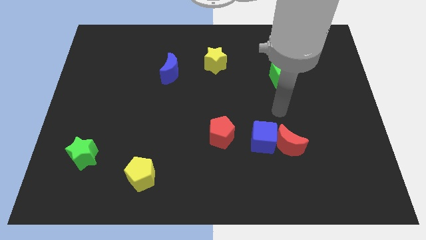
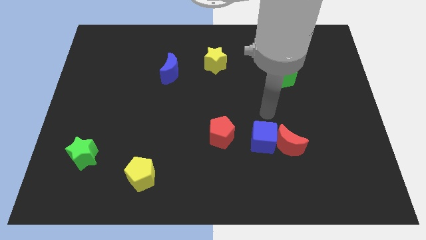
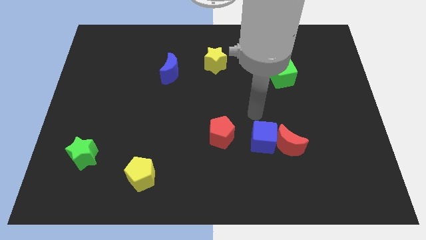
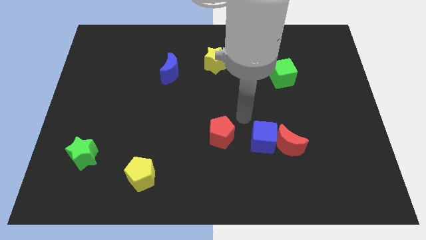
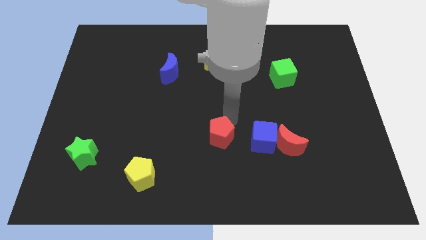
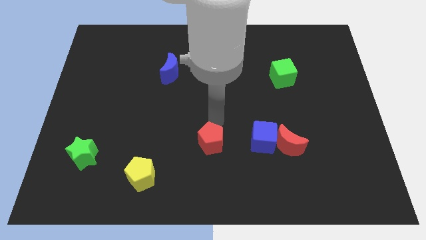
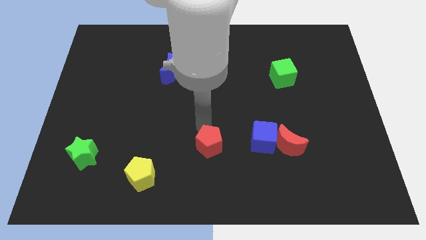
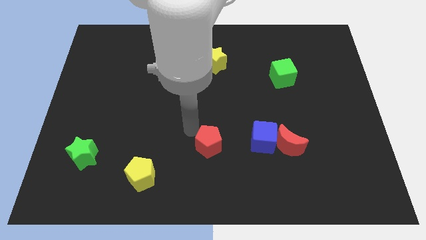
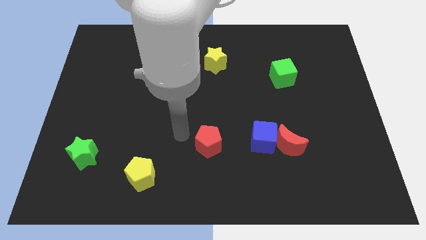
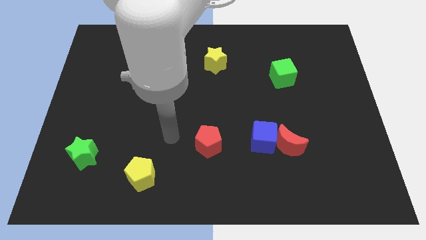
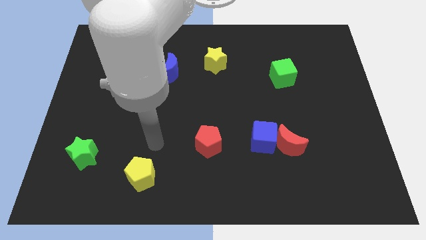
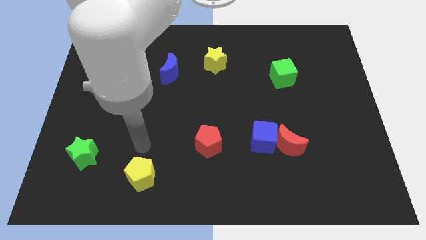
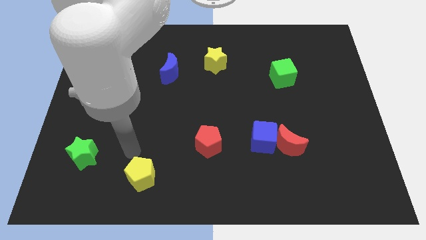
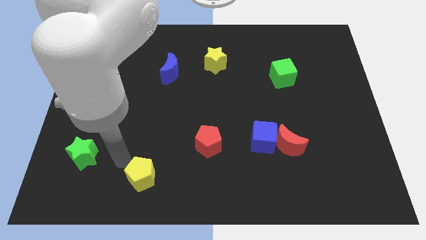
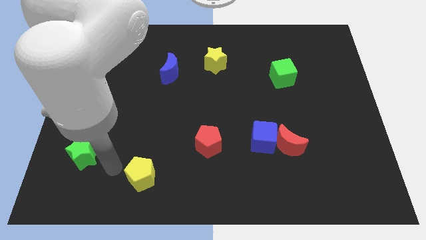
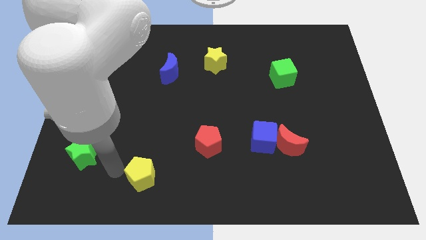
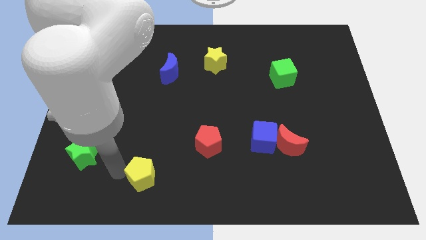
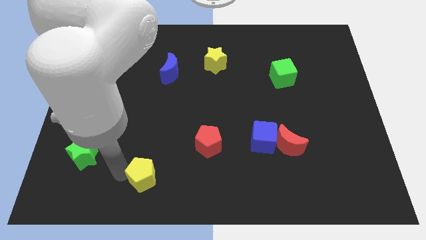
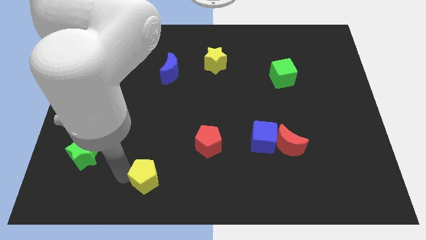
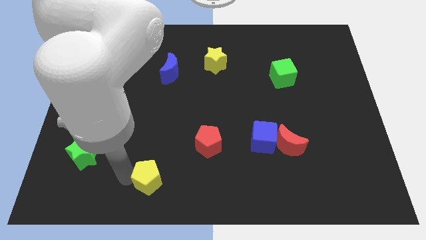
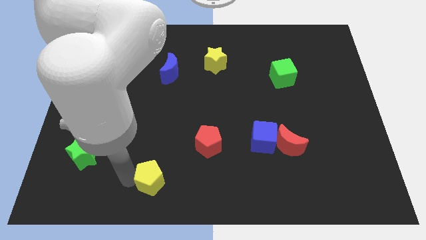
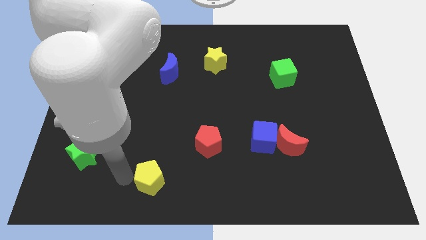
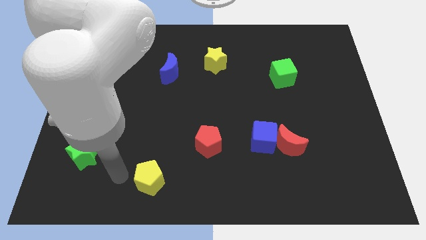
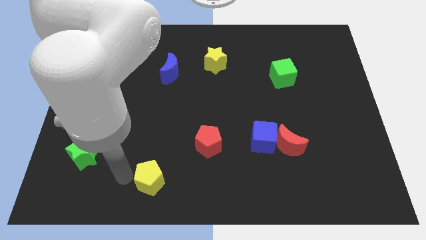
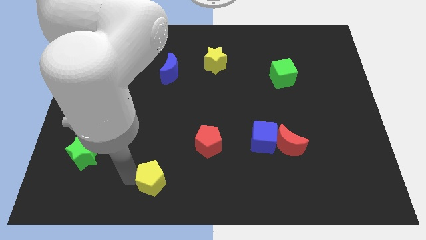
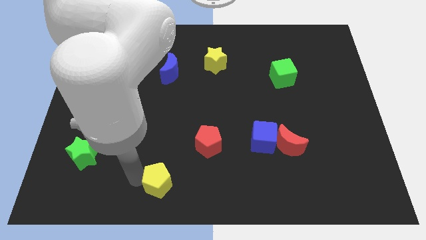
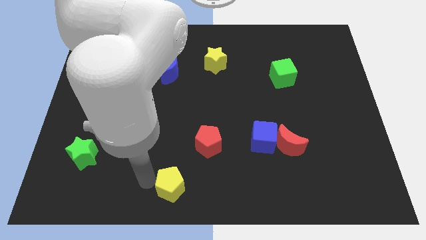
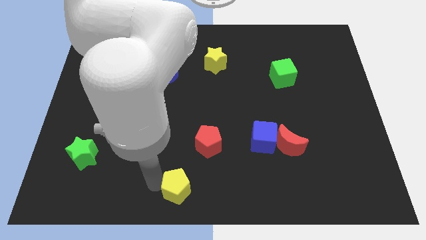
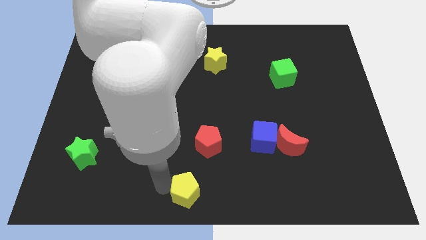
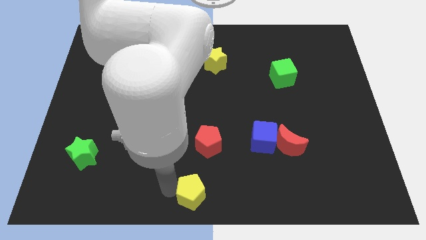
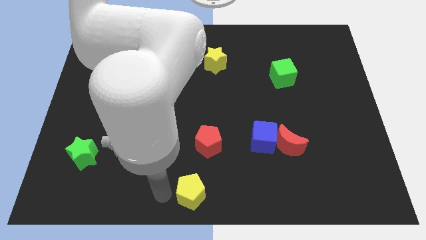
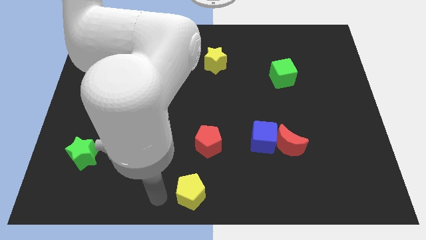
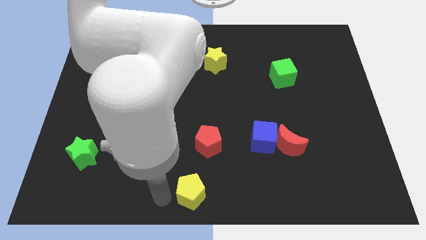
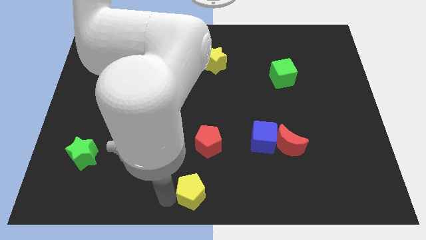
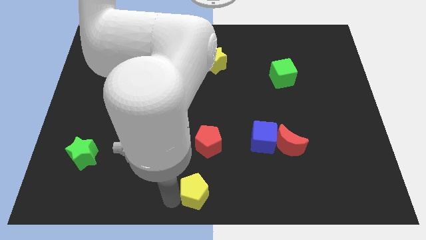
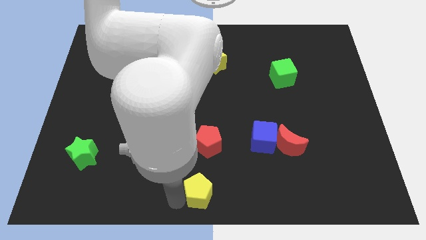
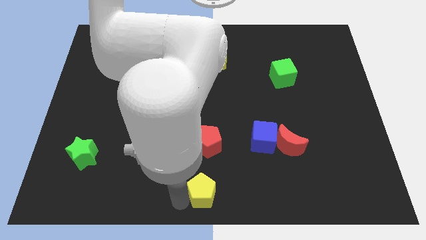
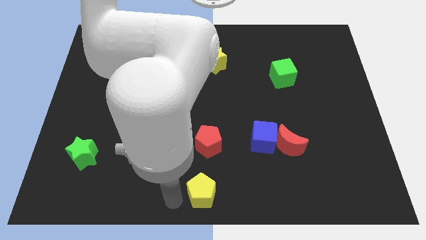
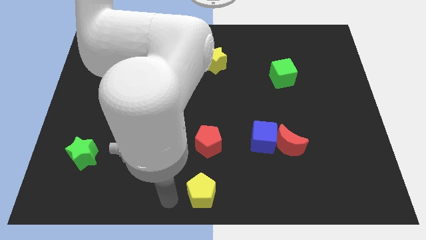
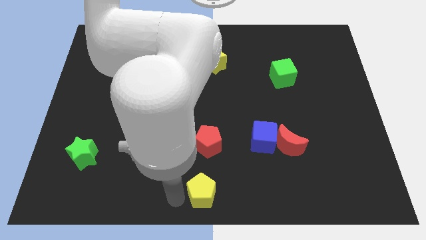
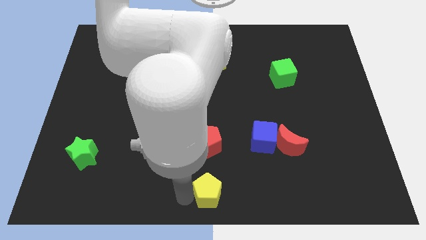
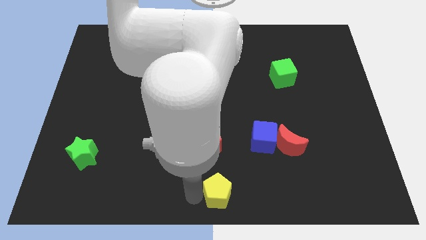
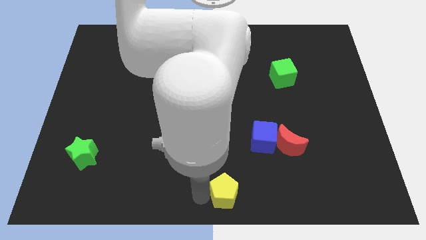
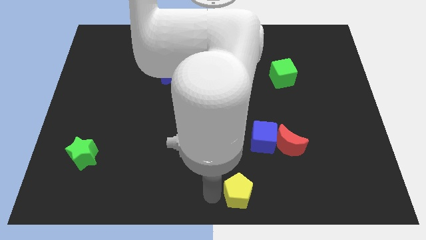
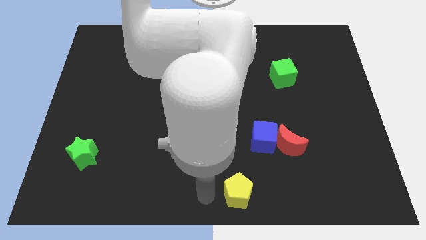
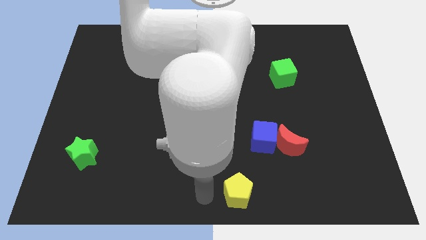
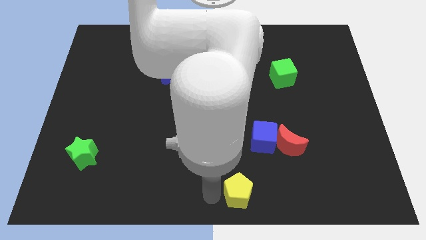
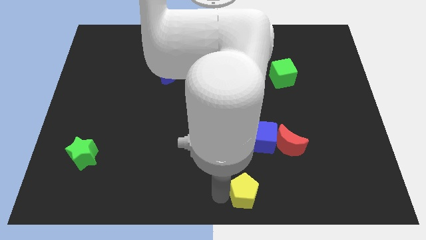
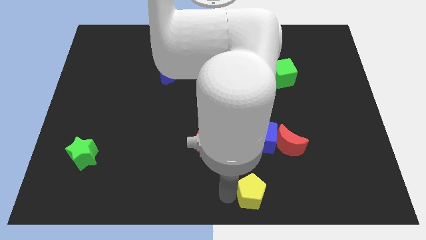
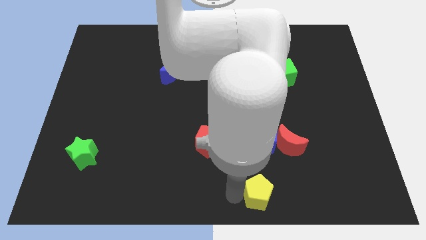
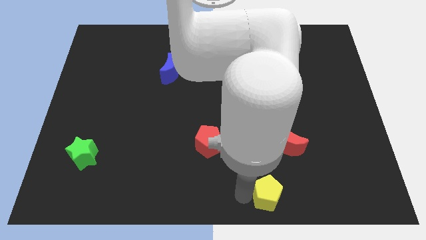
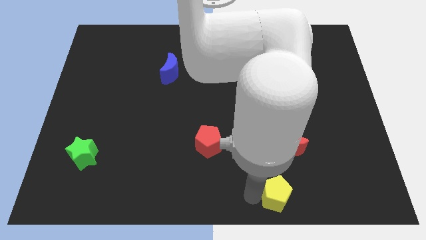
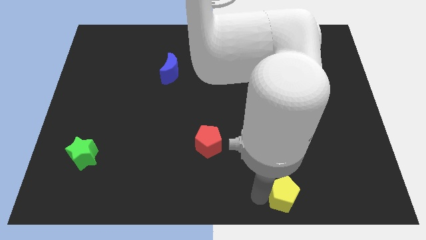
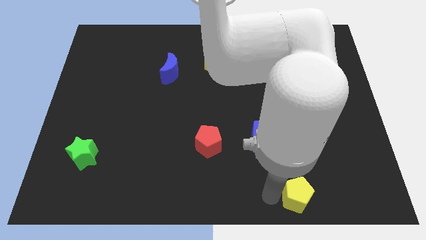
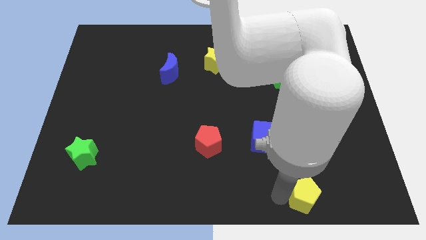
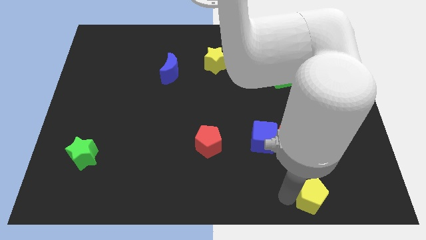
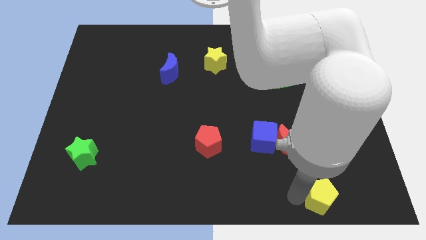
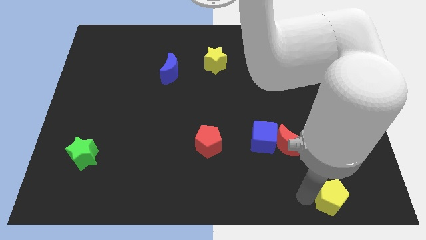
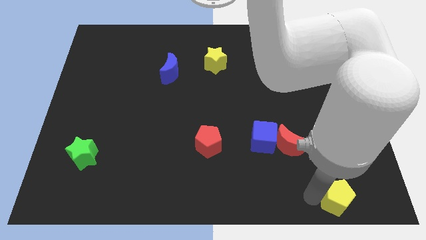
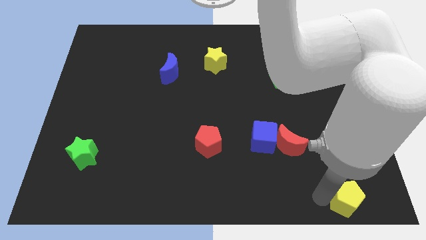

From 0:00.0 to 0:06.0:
put the yellow pentagon to the bottom right

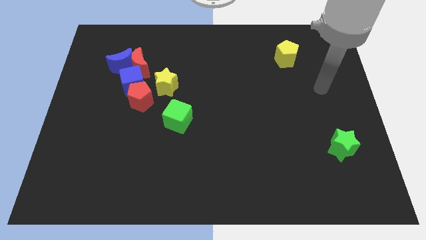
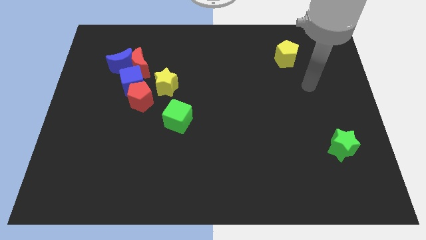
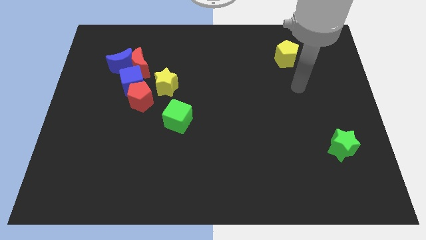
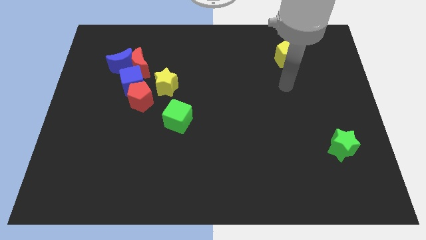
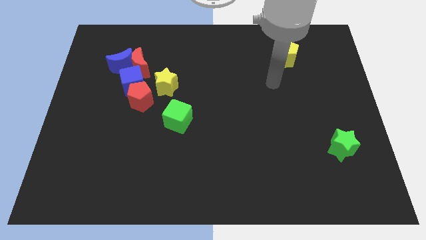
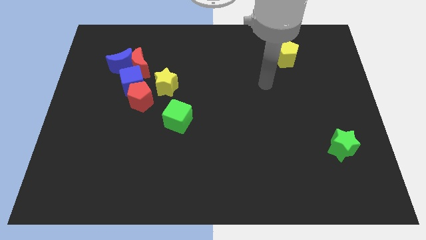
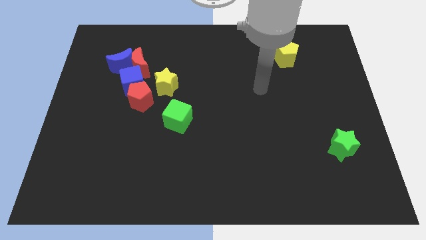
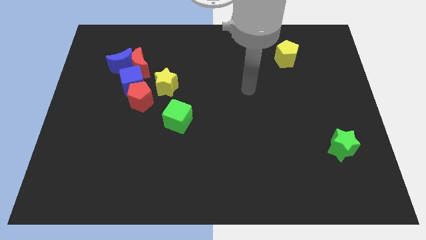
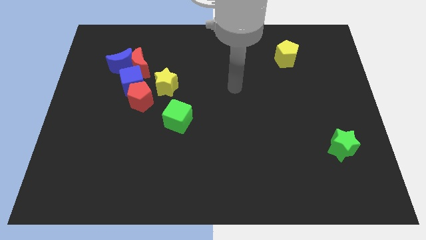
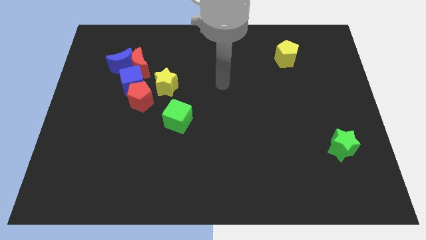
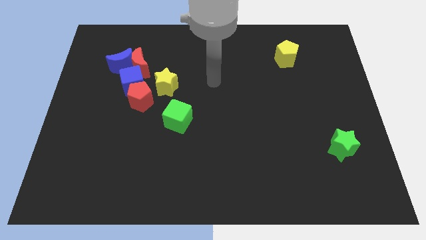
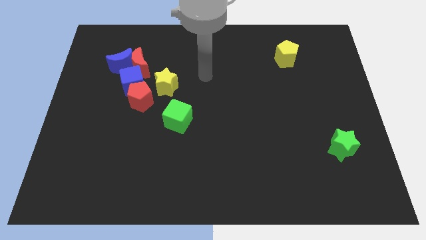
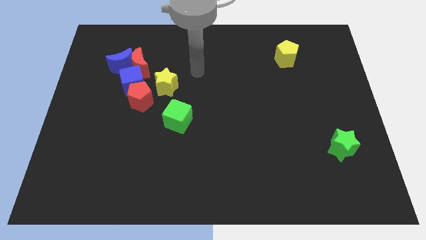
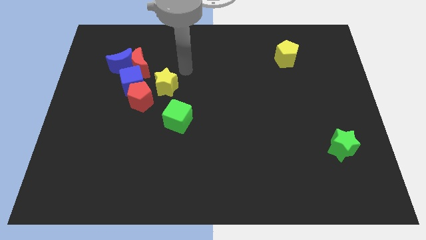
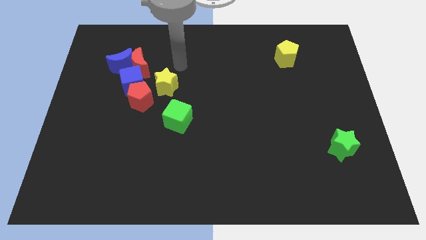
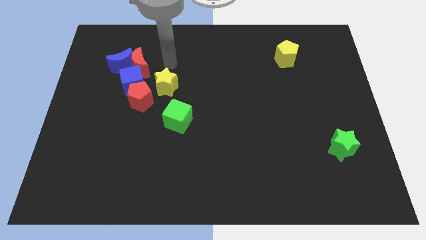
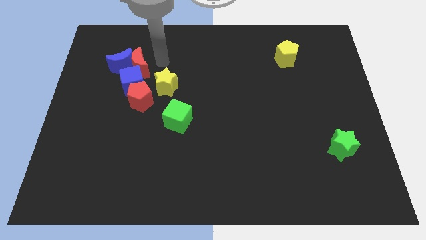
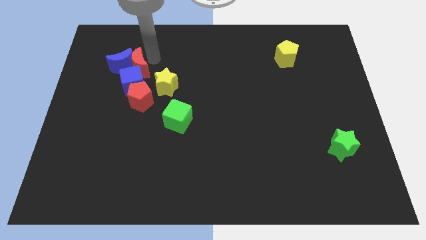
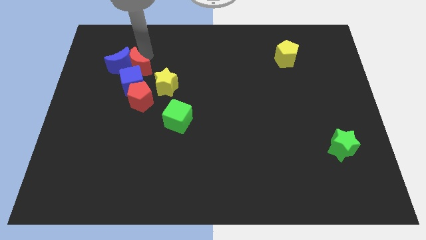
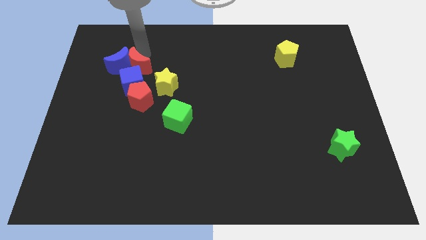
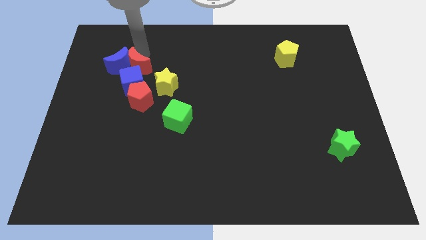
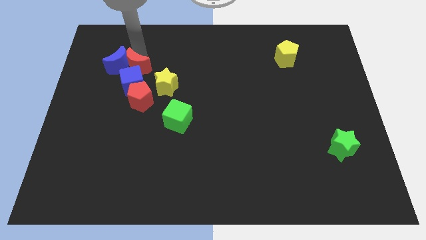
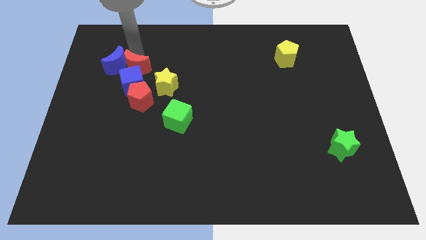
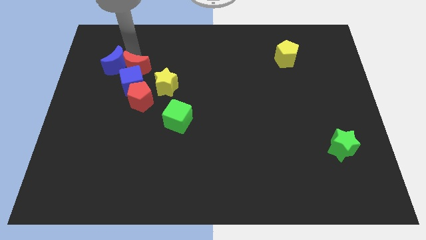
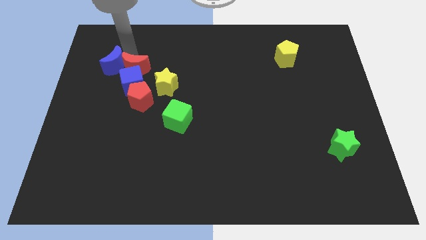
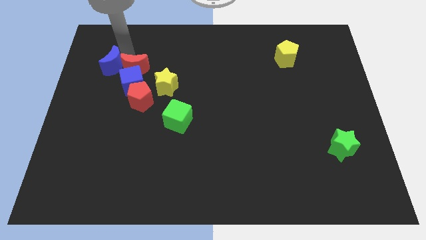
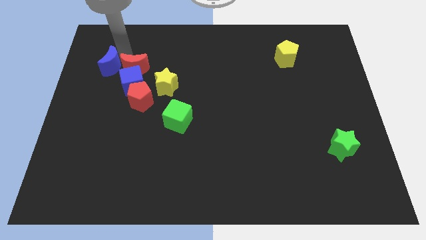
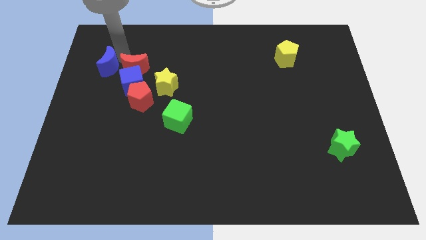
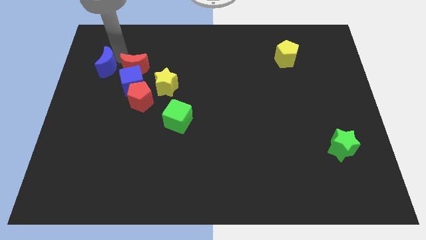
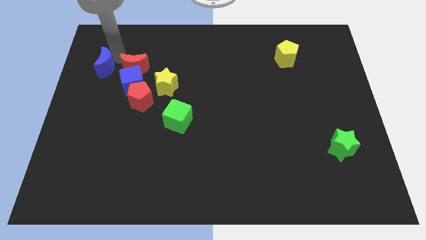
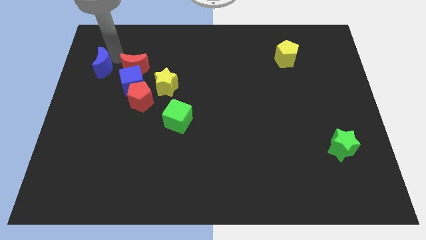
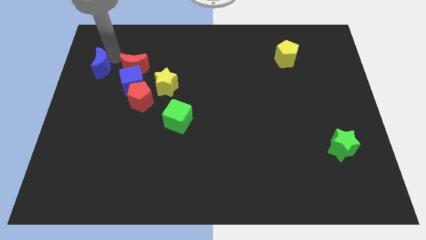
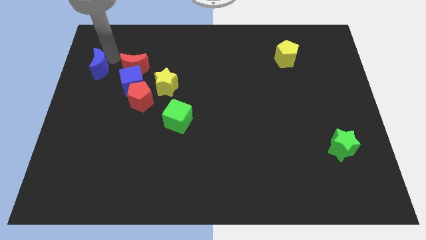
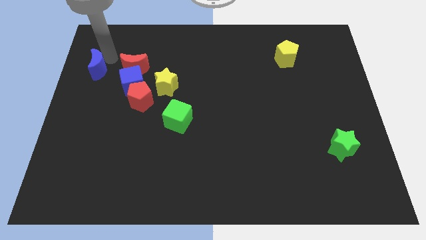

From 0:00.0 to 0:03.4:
move the blue moon to the left side of the board
